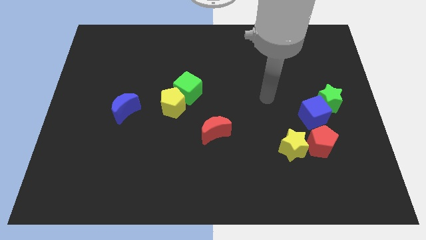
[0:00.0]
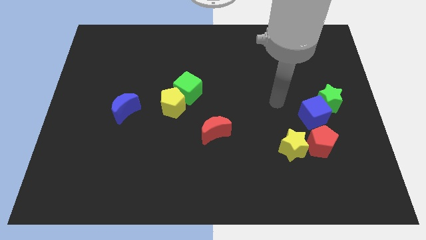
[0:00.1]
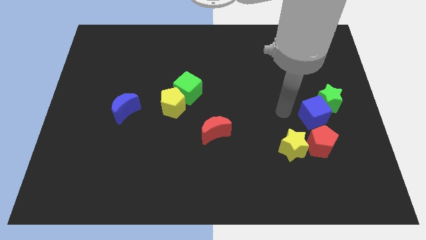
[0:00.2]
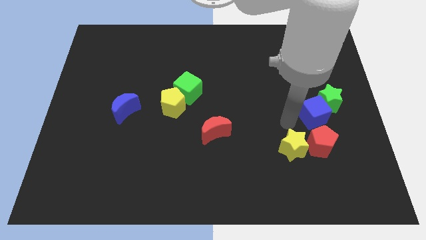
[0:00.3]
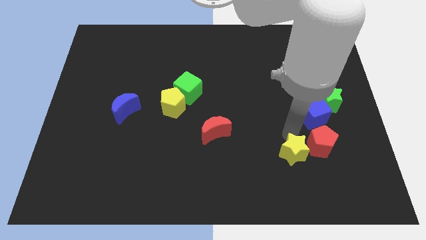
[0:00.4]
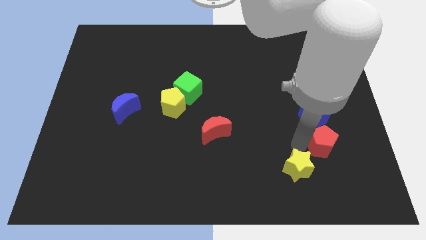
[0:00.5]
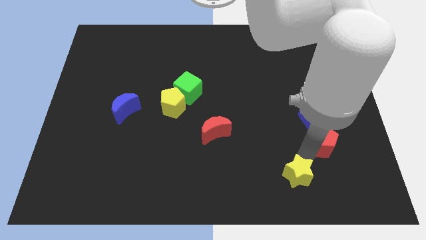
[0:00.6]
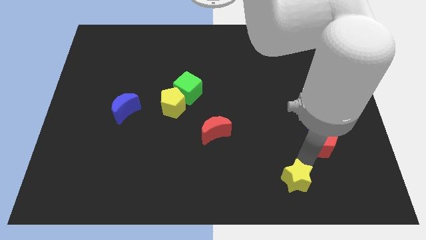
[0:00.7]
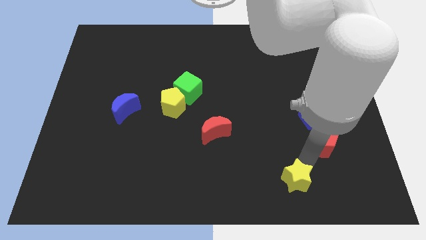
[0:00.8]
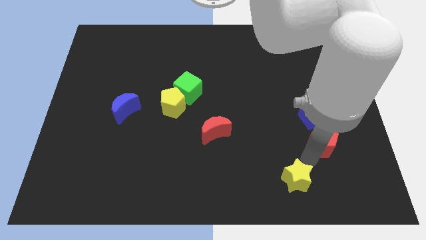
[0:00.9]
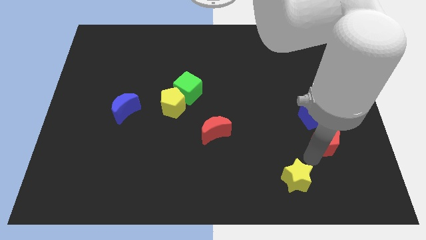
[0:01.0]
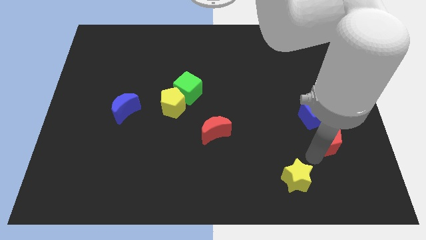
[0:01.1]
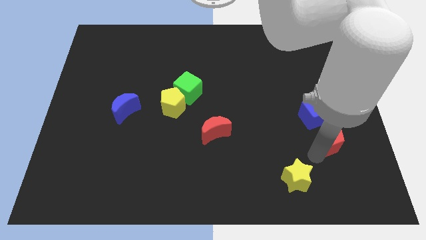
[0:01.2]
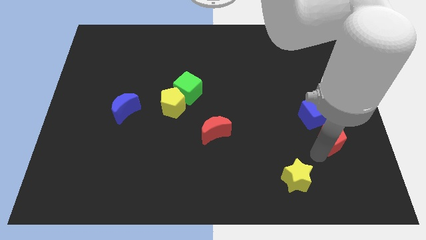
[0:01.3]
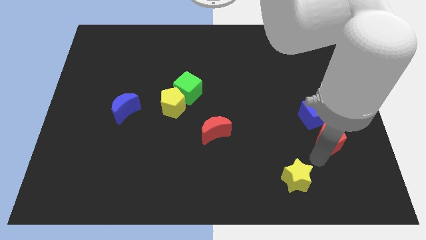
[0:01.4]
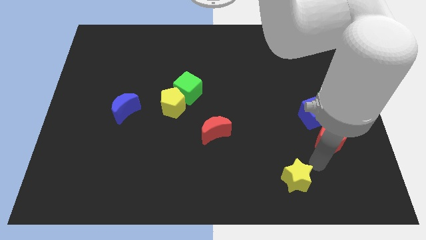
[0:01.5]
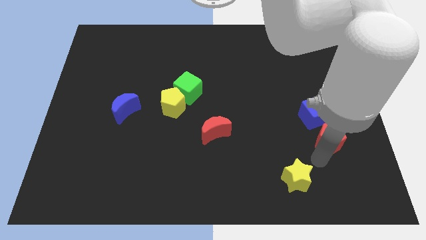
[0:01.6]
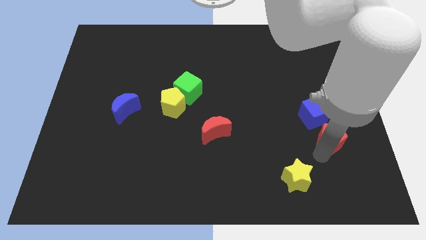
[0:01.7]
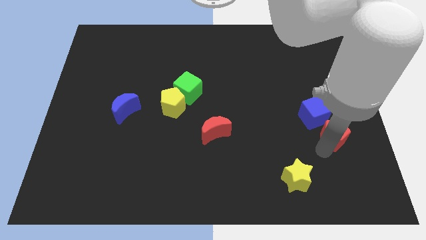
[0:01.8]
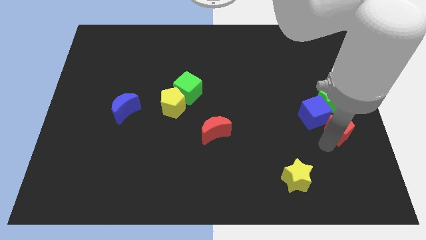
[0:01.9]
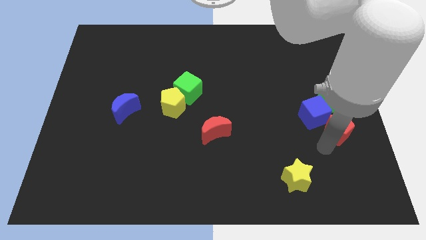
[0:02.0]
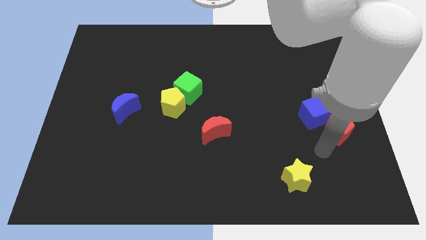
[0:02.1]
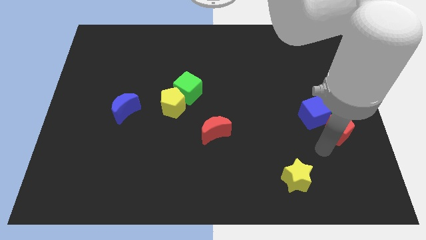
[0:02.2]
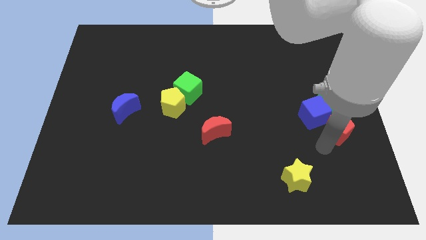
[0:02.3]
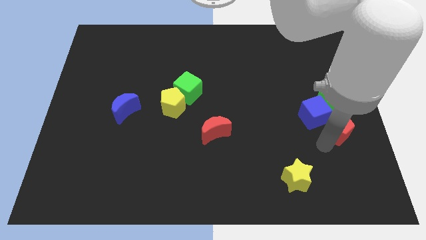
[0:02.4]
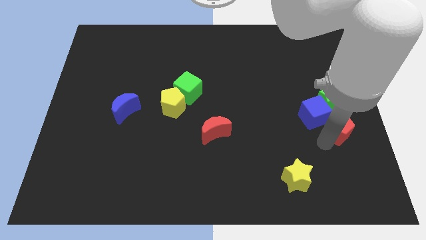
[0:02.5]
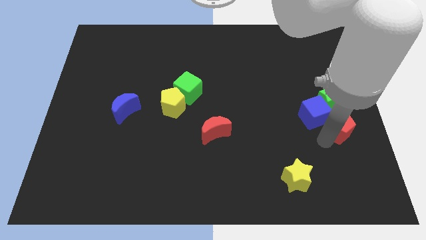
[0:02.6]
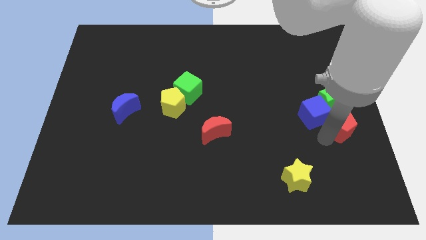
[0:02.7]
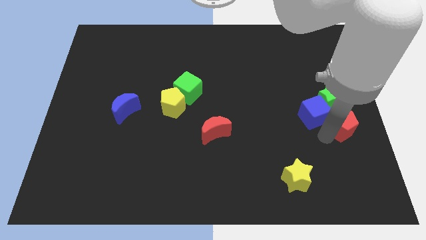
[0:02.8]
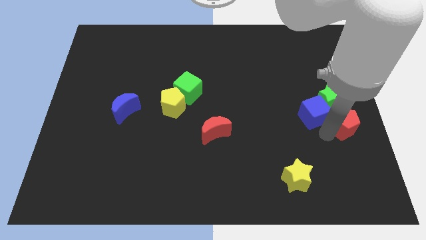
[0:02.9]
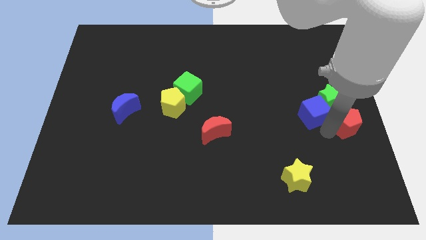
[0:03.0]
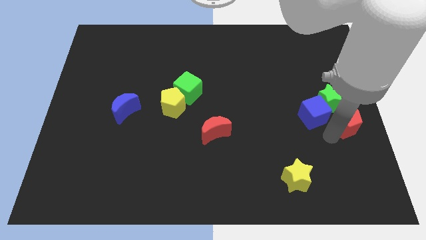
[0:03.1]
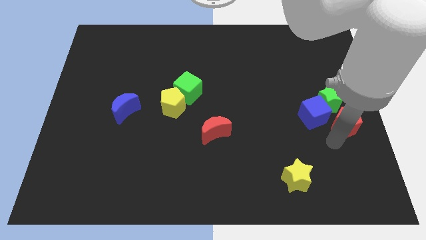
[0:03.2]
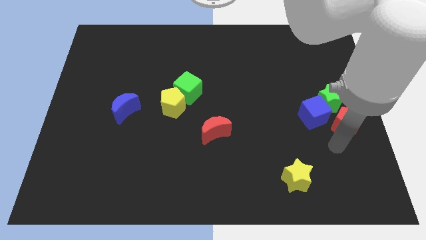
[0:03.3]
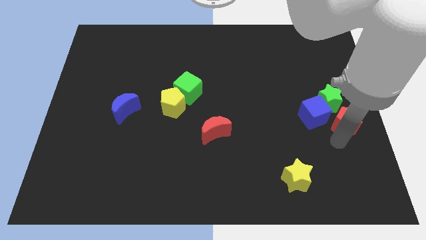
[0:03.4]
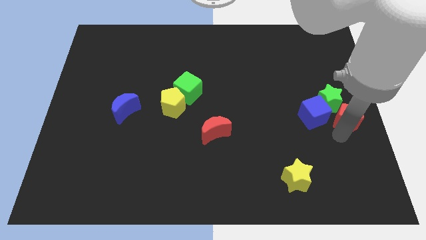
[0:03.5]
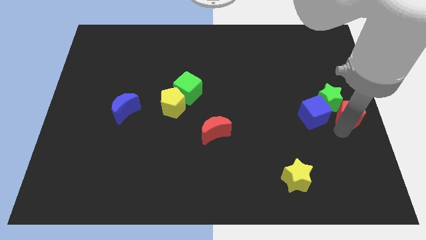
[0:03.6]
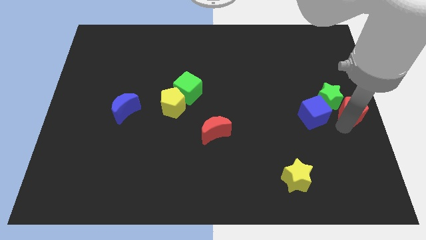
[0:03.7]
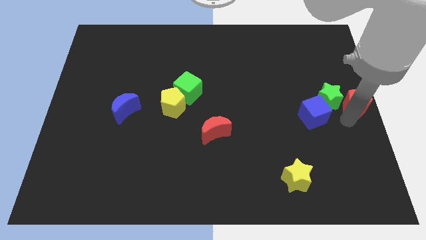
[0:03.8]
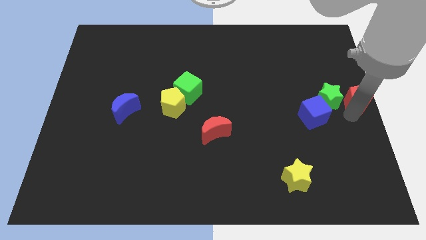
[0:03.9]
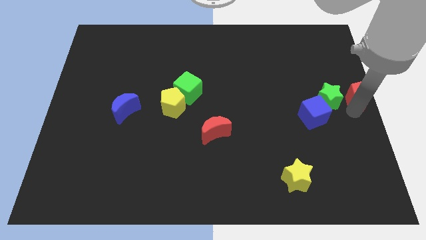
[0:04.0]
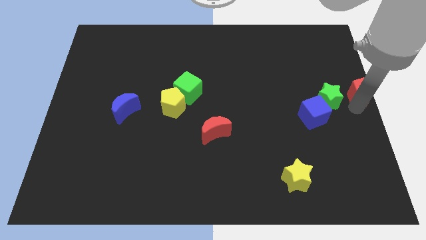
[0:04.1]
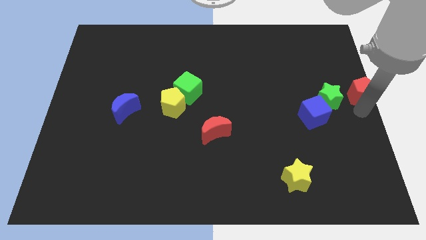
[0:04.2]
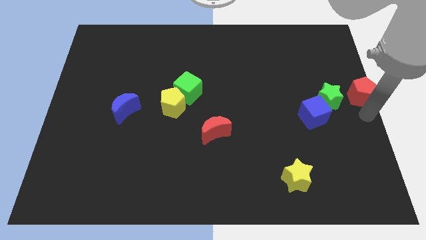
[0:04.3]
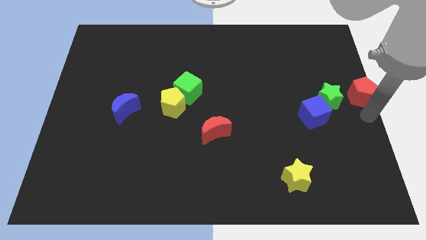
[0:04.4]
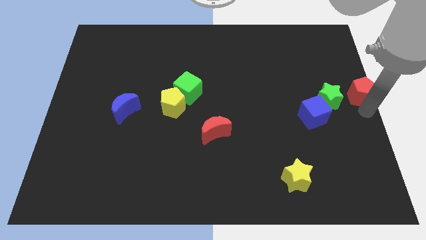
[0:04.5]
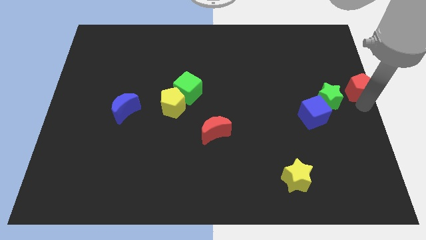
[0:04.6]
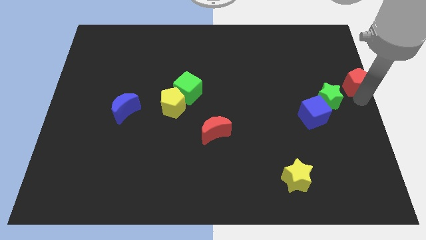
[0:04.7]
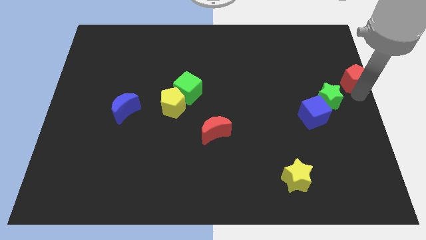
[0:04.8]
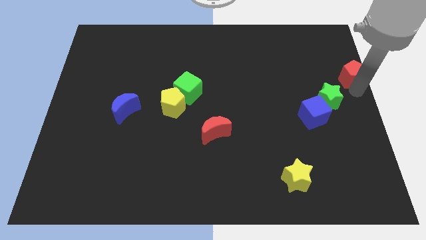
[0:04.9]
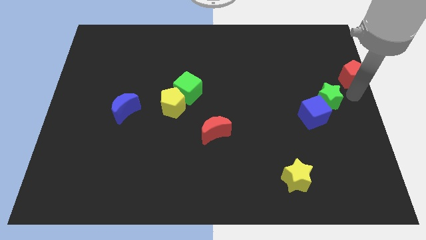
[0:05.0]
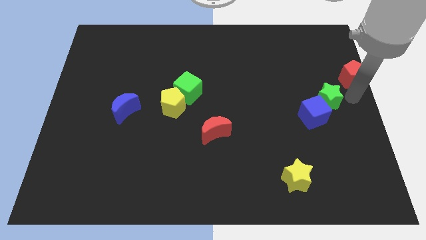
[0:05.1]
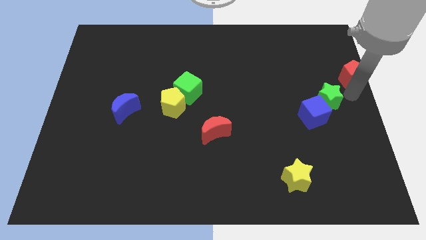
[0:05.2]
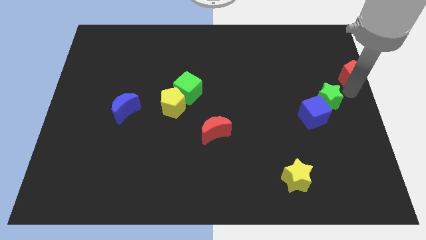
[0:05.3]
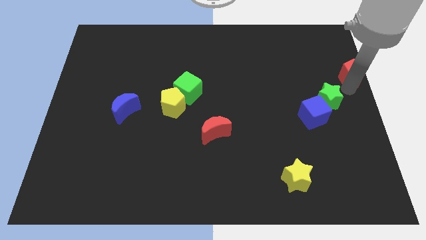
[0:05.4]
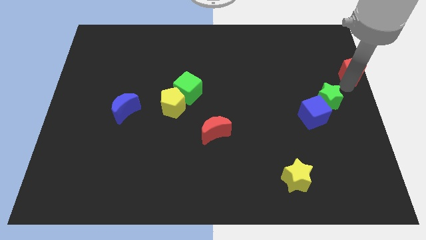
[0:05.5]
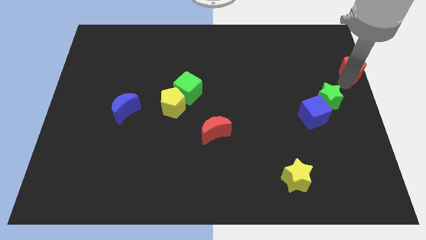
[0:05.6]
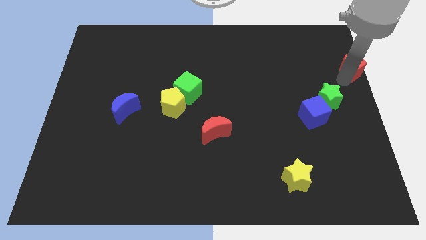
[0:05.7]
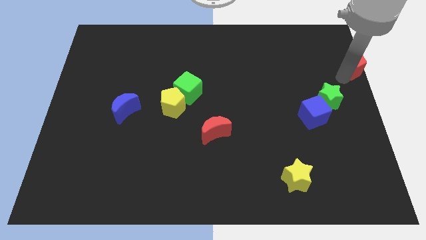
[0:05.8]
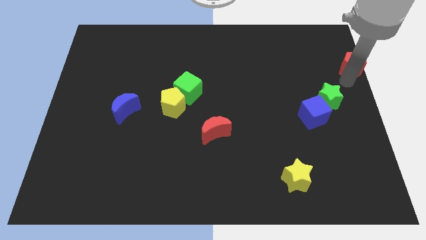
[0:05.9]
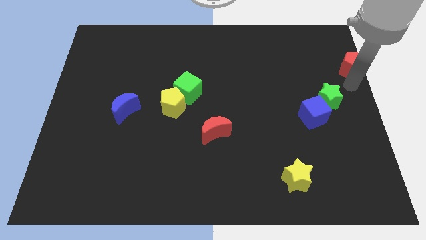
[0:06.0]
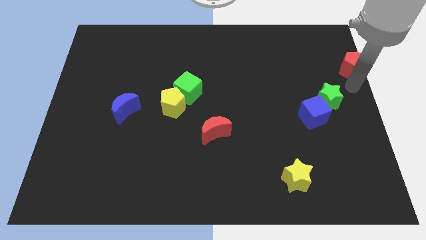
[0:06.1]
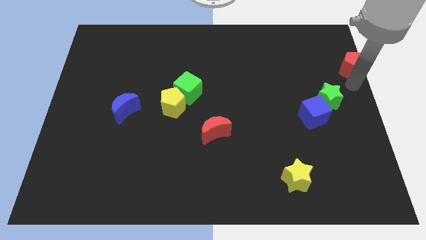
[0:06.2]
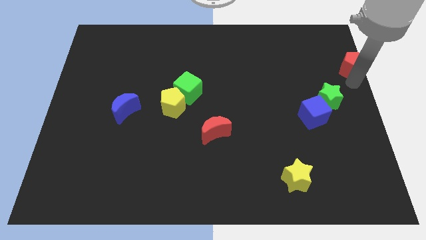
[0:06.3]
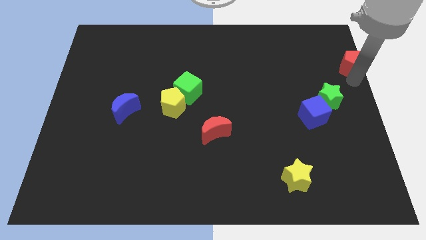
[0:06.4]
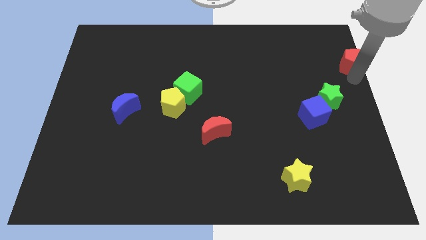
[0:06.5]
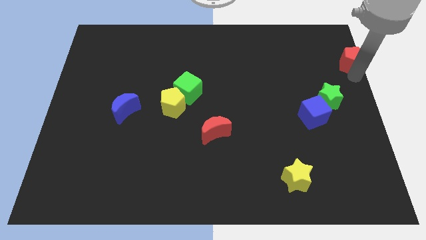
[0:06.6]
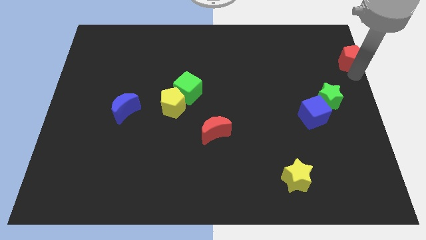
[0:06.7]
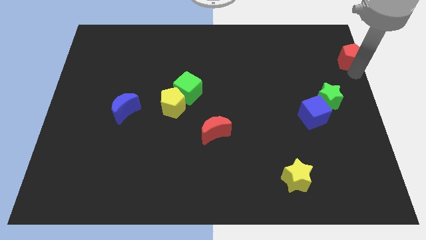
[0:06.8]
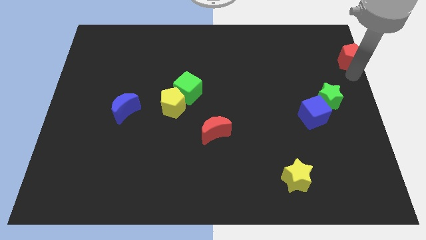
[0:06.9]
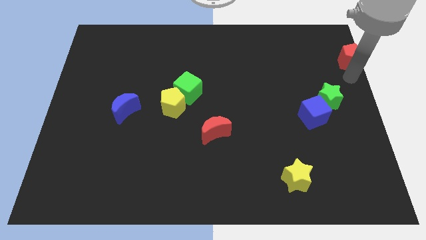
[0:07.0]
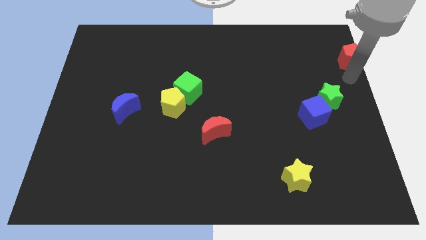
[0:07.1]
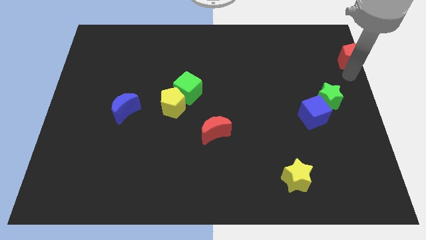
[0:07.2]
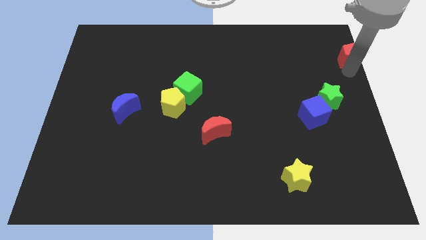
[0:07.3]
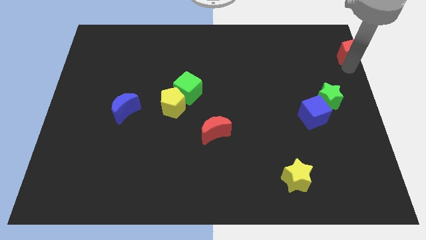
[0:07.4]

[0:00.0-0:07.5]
put the red pentagon to the top right
